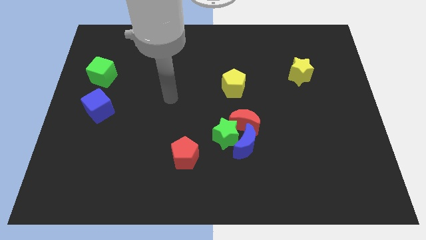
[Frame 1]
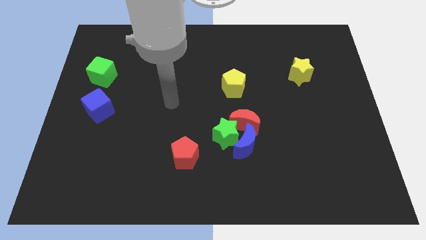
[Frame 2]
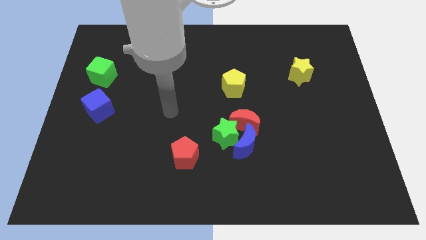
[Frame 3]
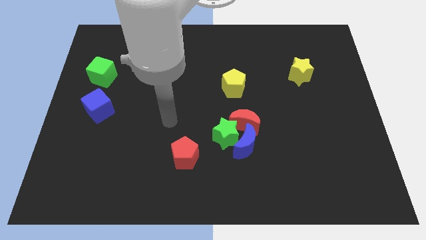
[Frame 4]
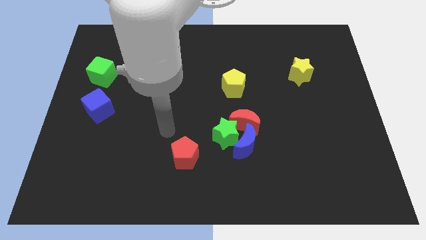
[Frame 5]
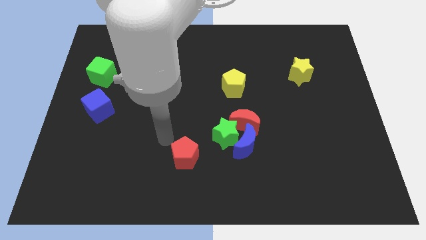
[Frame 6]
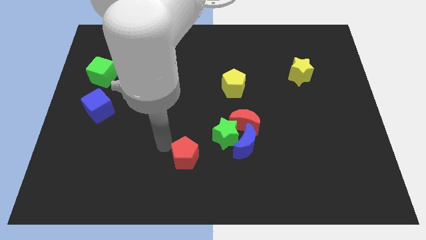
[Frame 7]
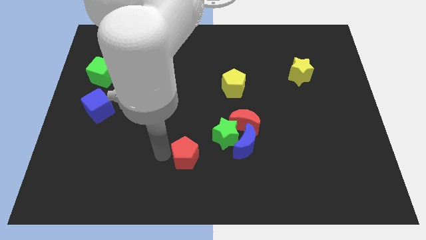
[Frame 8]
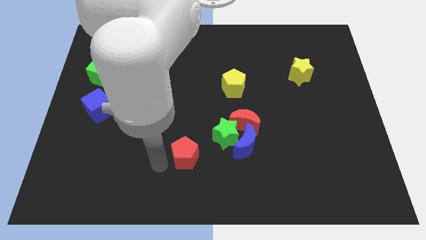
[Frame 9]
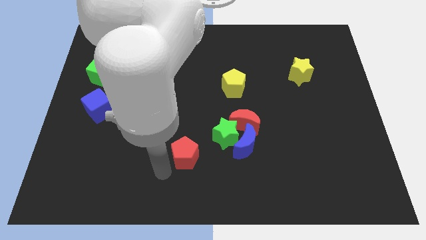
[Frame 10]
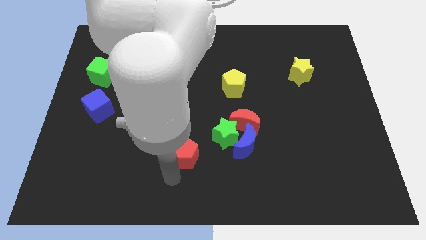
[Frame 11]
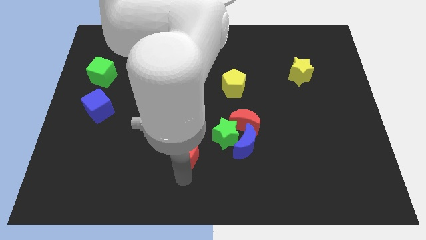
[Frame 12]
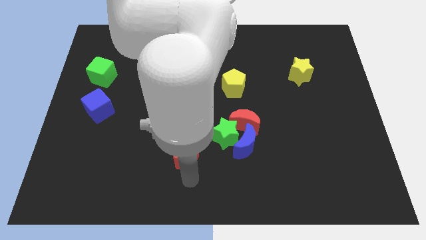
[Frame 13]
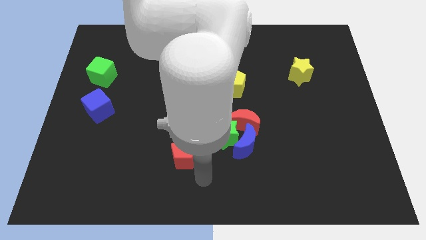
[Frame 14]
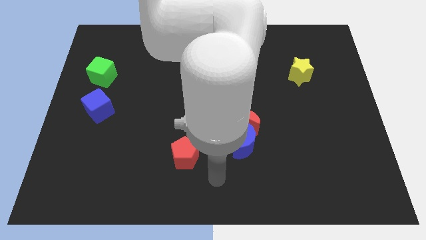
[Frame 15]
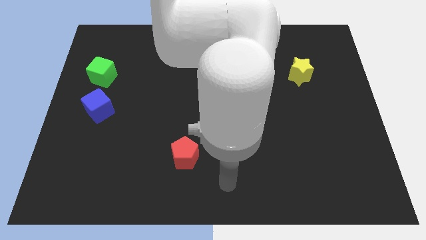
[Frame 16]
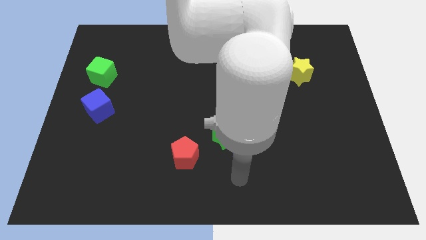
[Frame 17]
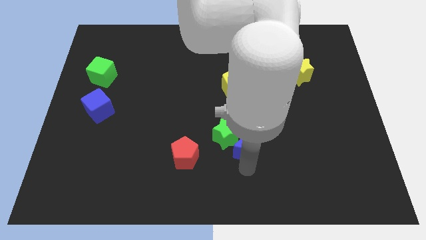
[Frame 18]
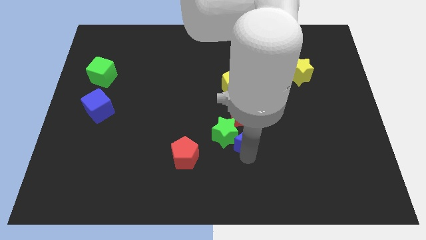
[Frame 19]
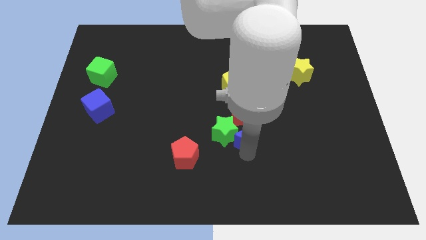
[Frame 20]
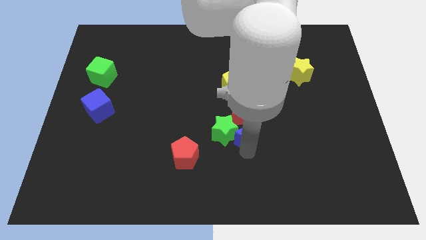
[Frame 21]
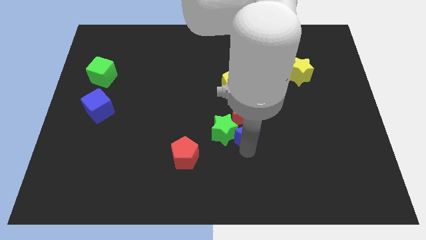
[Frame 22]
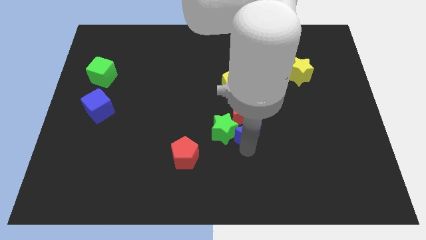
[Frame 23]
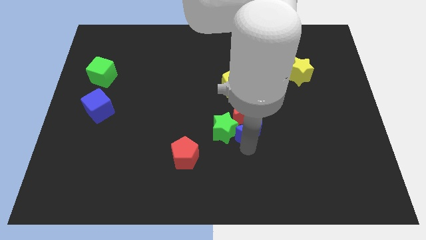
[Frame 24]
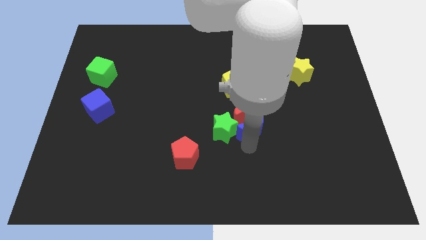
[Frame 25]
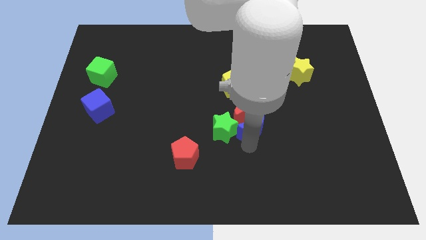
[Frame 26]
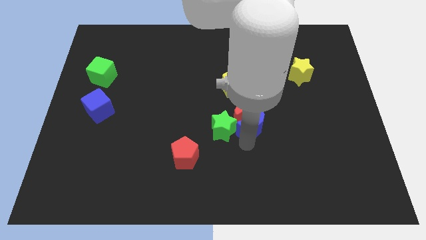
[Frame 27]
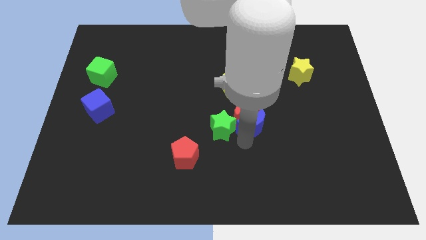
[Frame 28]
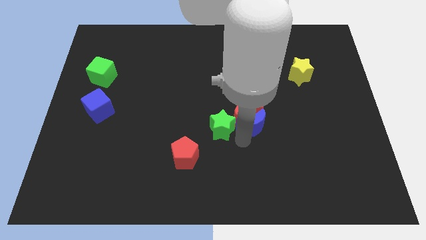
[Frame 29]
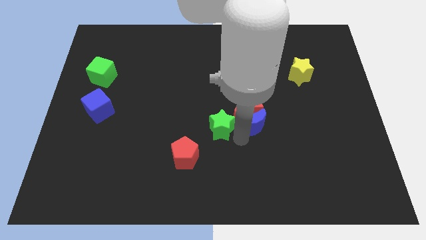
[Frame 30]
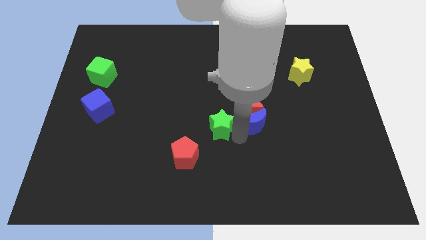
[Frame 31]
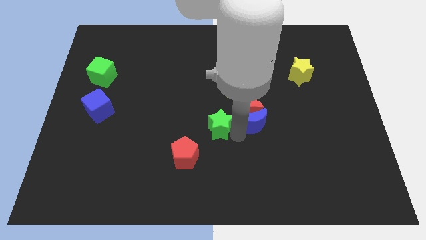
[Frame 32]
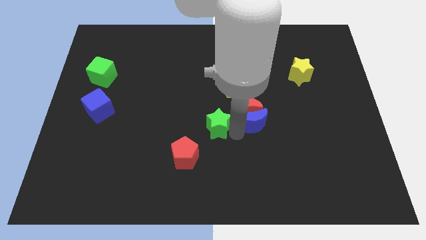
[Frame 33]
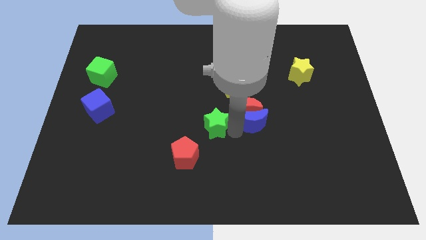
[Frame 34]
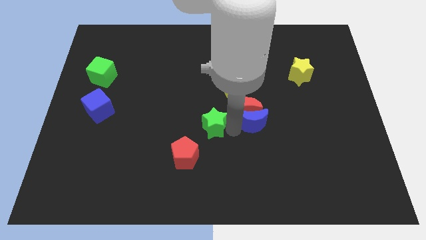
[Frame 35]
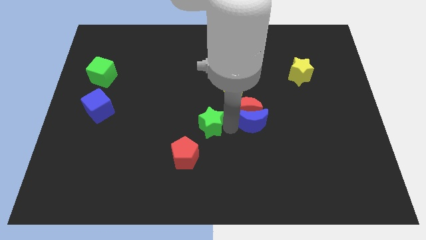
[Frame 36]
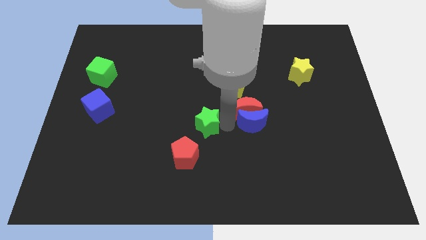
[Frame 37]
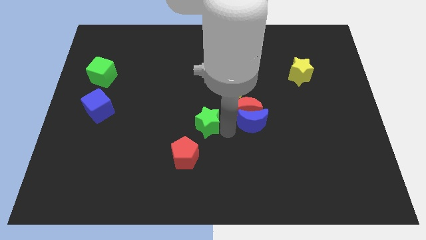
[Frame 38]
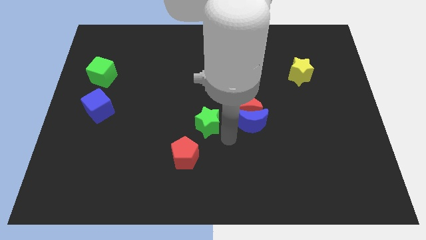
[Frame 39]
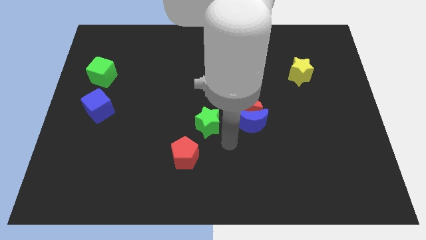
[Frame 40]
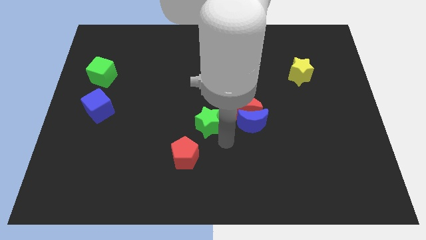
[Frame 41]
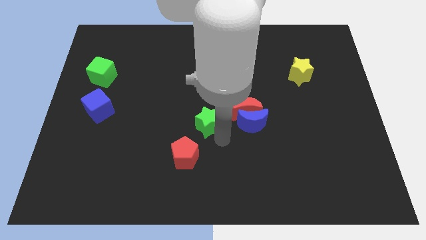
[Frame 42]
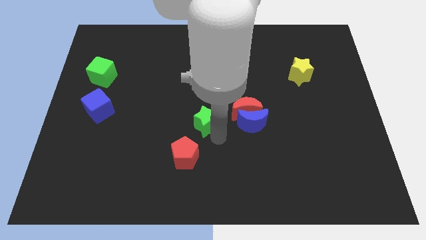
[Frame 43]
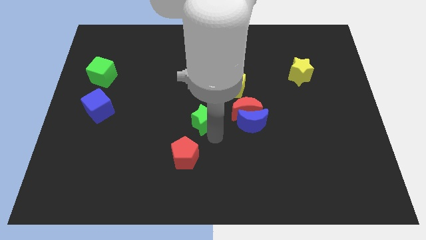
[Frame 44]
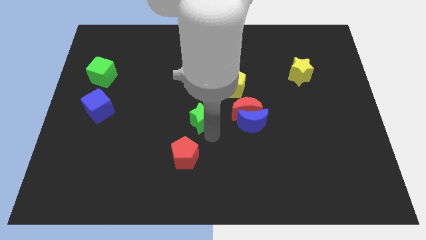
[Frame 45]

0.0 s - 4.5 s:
slightly slide the green star up and then left

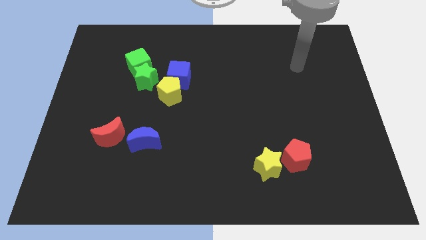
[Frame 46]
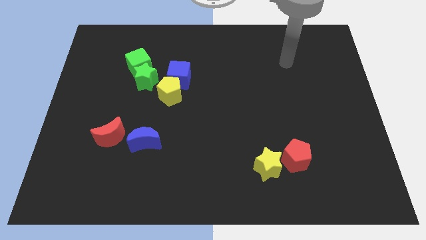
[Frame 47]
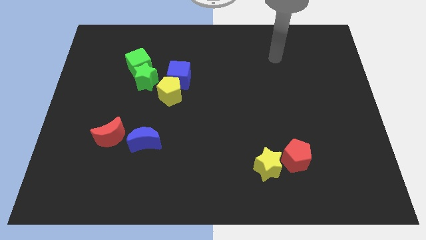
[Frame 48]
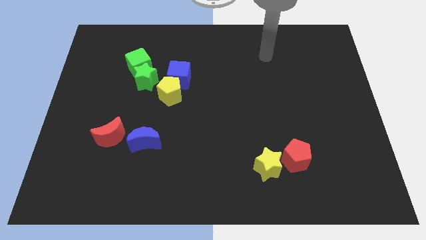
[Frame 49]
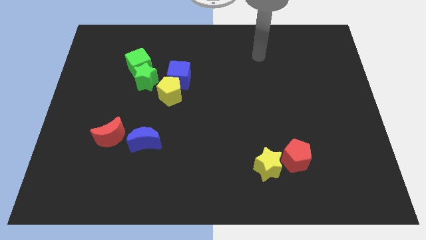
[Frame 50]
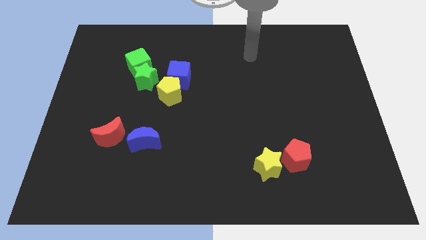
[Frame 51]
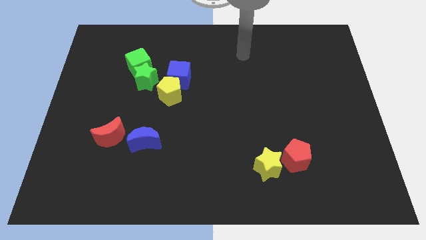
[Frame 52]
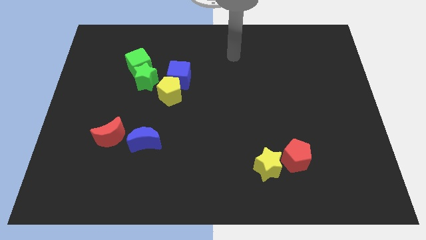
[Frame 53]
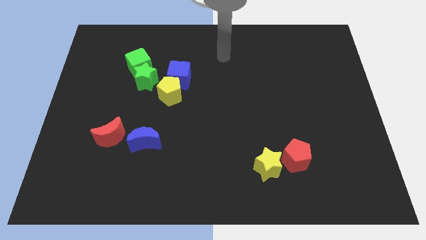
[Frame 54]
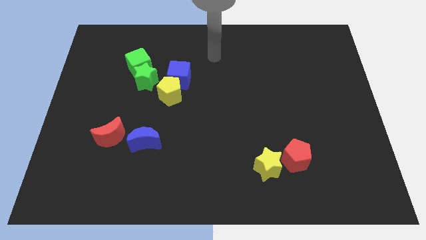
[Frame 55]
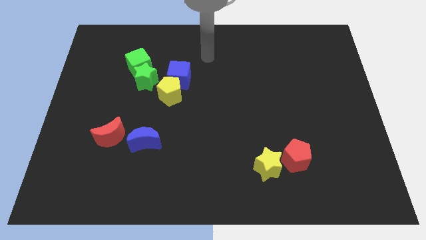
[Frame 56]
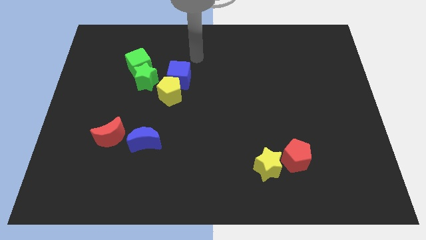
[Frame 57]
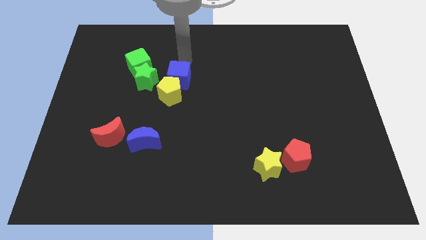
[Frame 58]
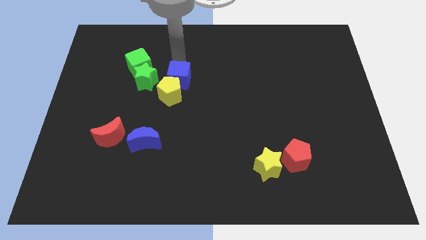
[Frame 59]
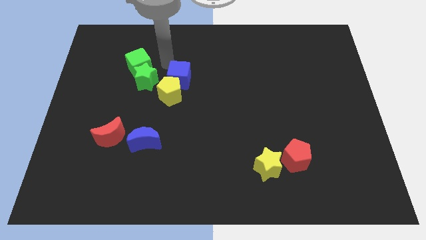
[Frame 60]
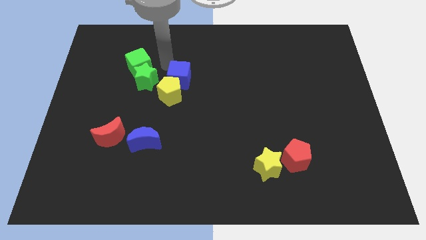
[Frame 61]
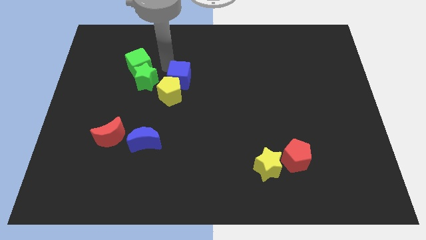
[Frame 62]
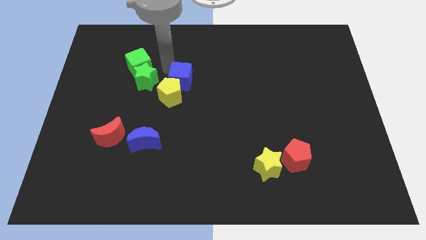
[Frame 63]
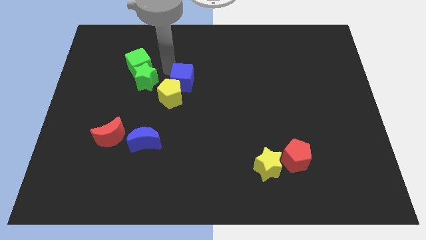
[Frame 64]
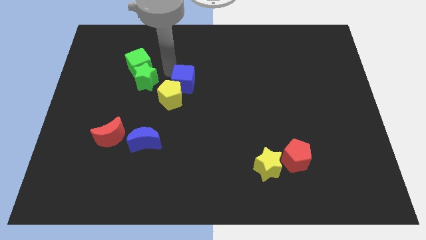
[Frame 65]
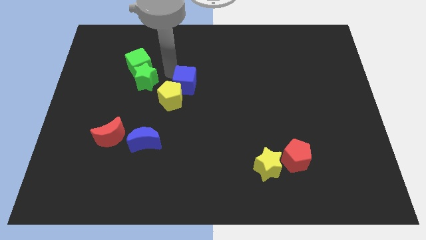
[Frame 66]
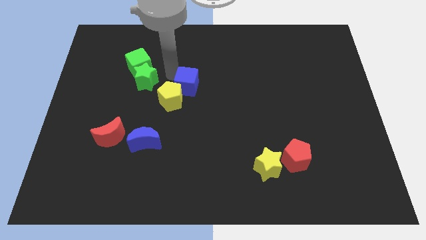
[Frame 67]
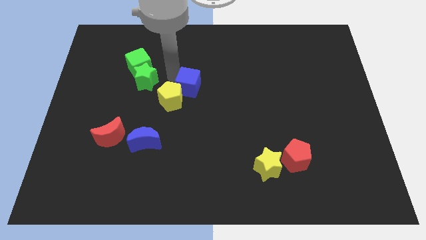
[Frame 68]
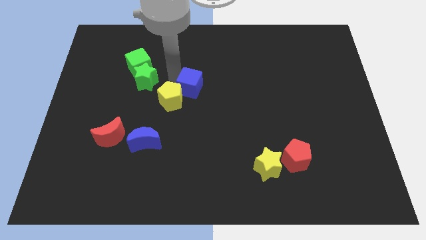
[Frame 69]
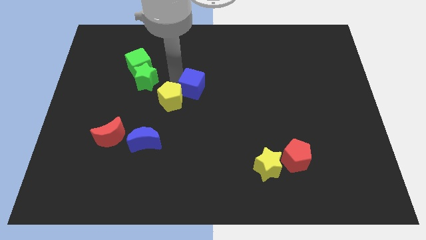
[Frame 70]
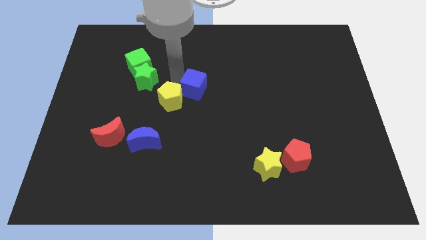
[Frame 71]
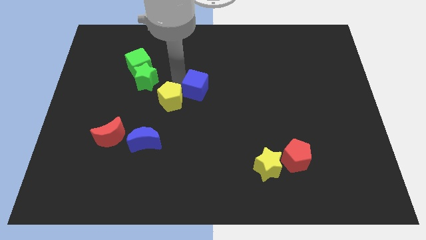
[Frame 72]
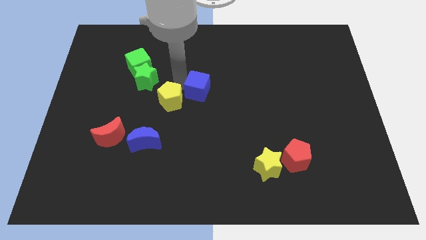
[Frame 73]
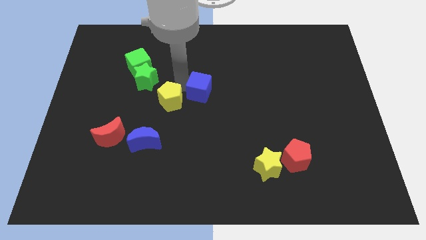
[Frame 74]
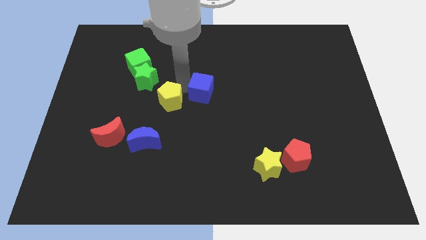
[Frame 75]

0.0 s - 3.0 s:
move the blue cube slightly down and to the right diagonally

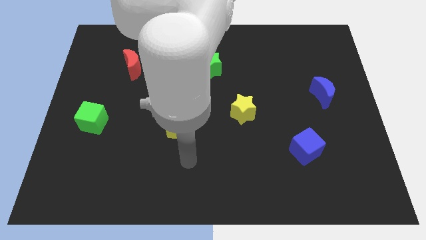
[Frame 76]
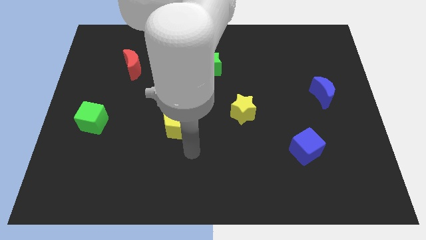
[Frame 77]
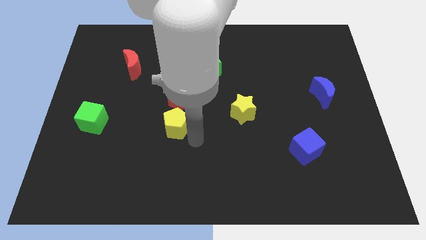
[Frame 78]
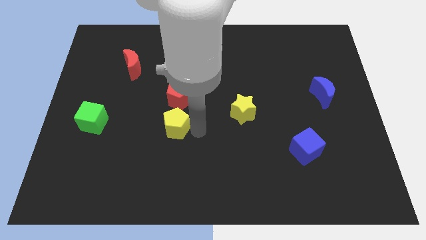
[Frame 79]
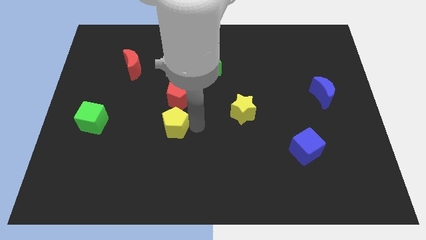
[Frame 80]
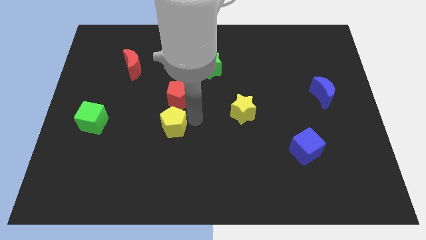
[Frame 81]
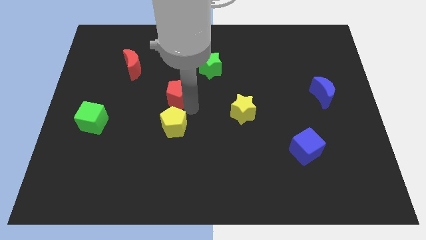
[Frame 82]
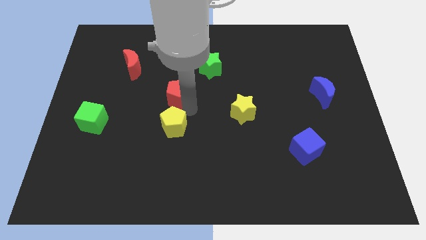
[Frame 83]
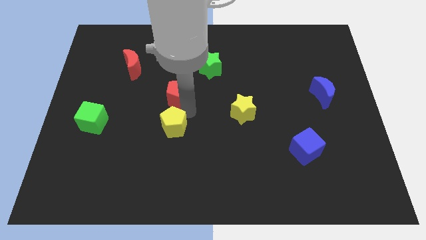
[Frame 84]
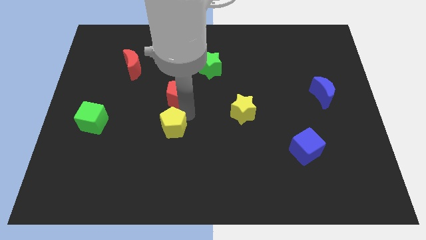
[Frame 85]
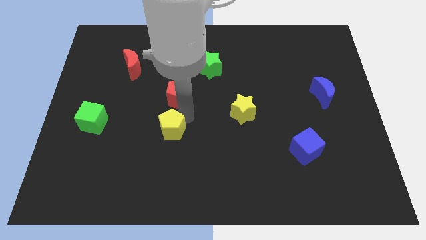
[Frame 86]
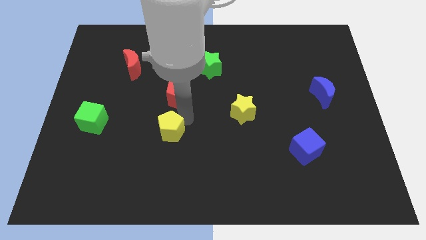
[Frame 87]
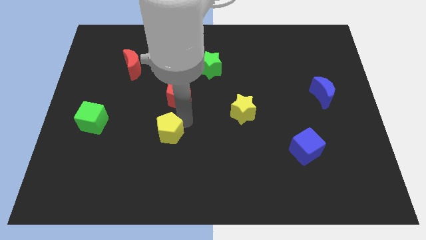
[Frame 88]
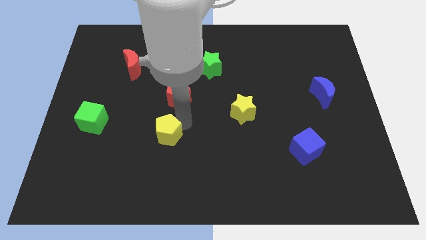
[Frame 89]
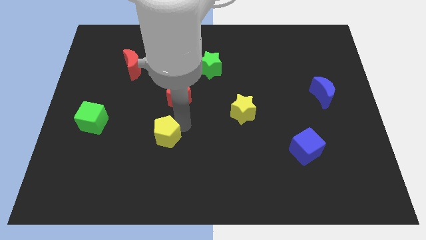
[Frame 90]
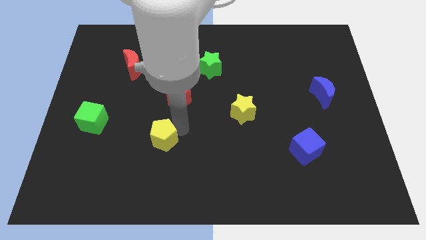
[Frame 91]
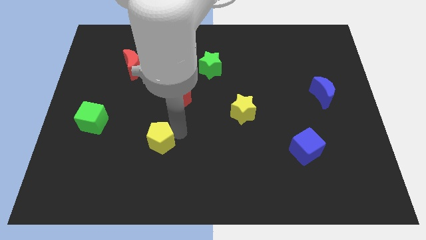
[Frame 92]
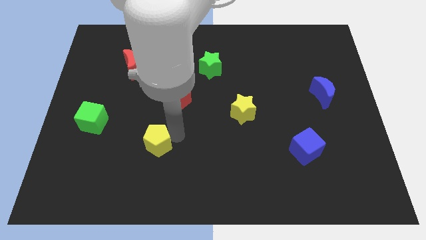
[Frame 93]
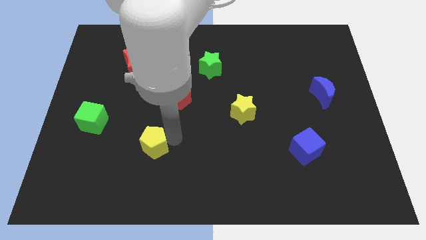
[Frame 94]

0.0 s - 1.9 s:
move the yellow pentagon downwards and left somewhat
